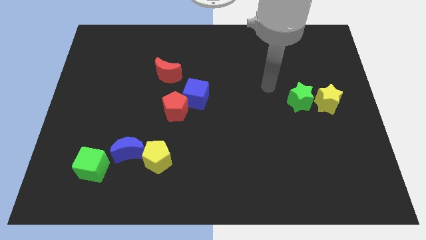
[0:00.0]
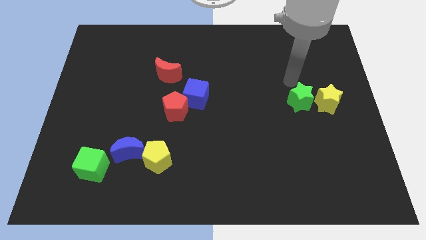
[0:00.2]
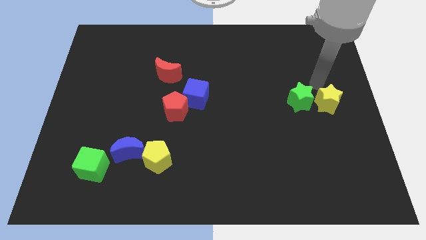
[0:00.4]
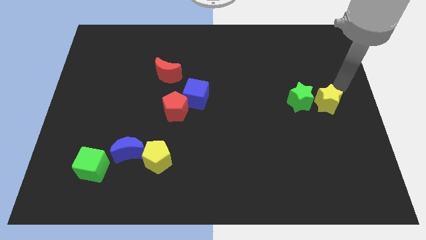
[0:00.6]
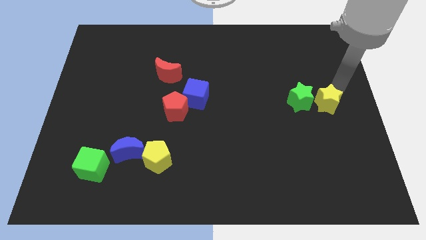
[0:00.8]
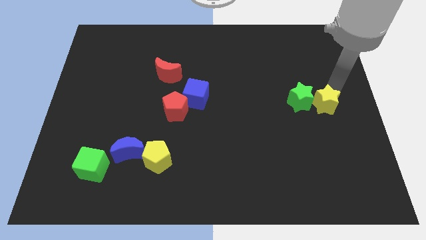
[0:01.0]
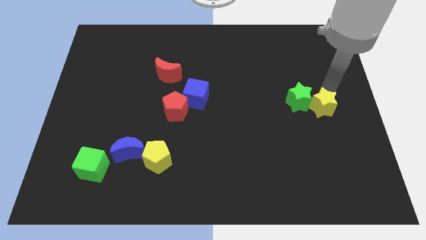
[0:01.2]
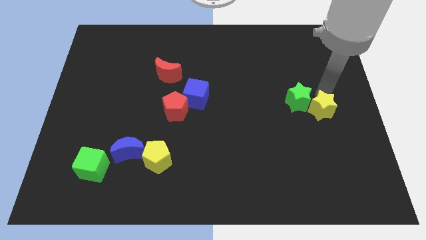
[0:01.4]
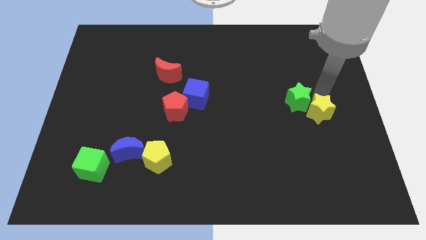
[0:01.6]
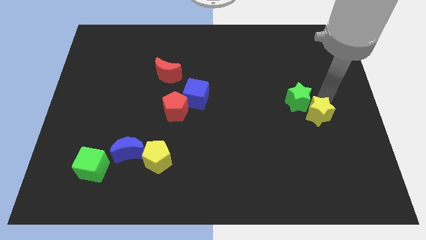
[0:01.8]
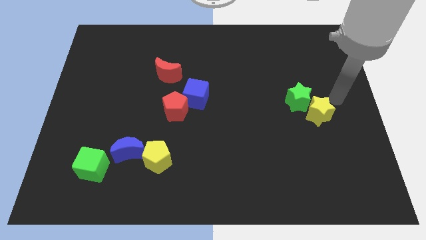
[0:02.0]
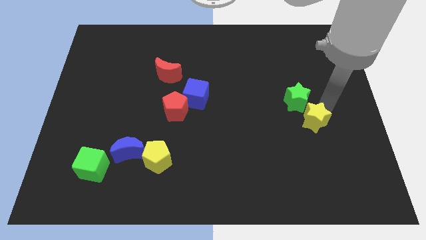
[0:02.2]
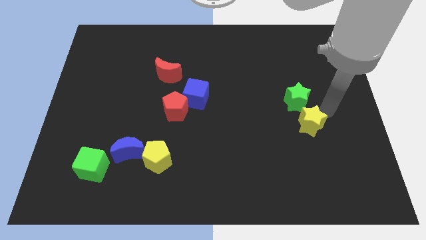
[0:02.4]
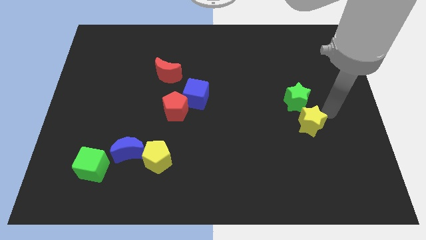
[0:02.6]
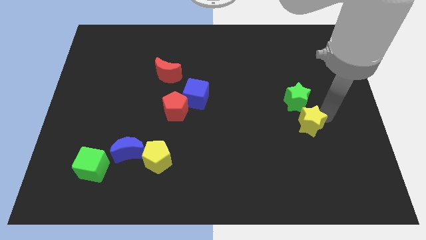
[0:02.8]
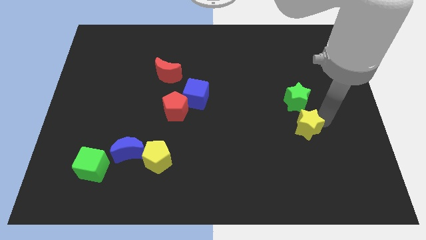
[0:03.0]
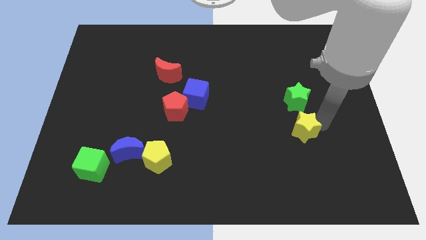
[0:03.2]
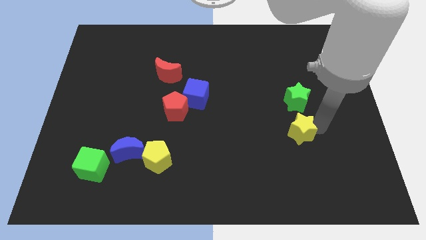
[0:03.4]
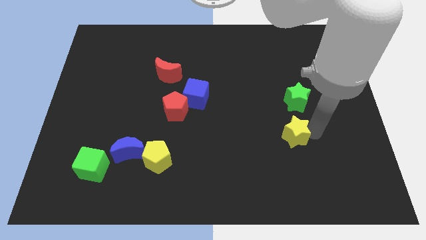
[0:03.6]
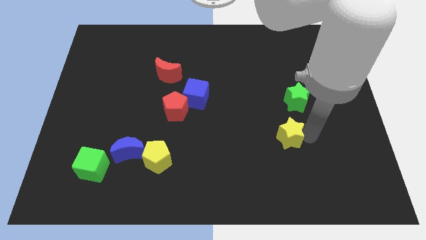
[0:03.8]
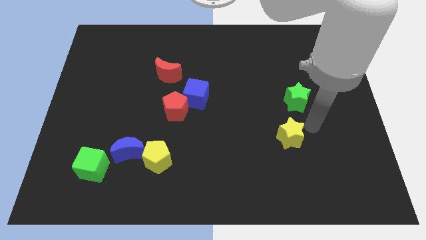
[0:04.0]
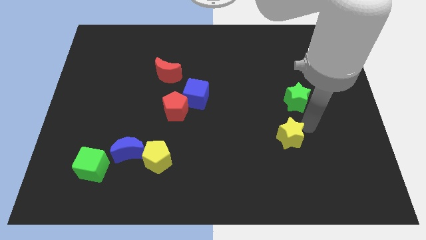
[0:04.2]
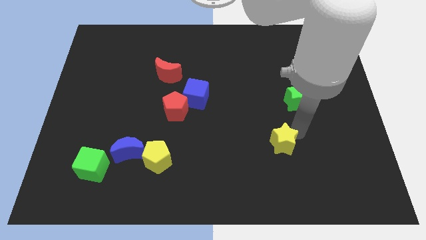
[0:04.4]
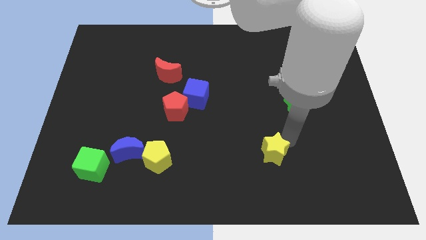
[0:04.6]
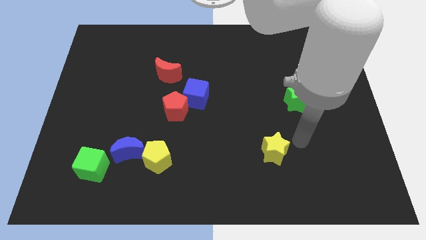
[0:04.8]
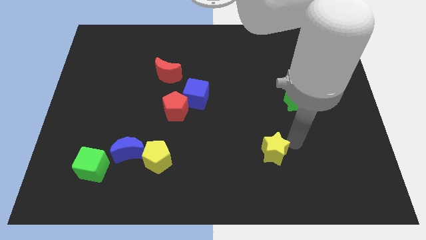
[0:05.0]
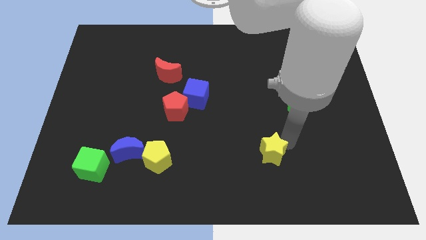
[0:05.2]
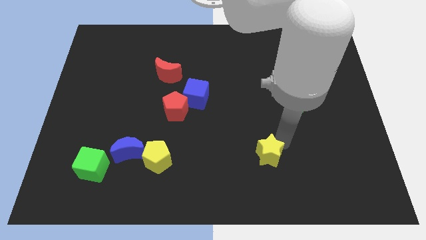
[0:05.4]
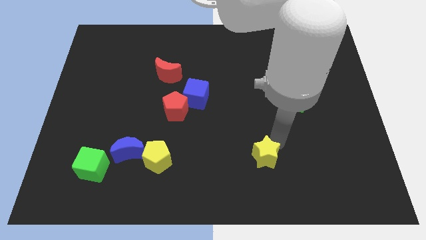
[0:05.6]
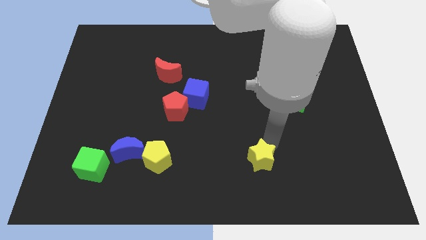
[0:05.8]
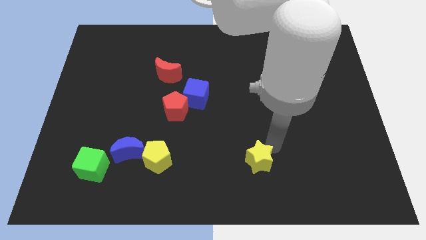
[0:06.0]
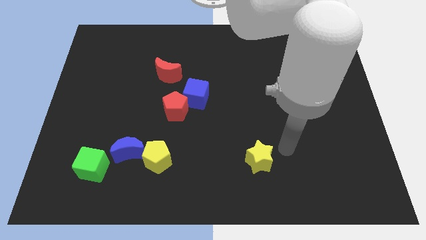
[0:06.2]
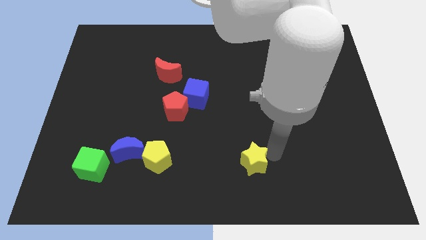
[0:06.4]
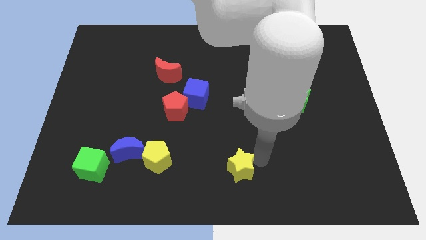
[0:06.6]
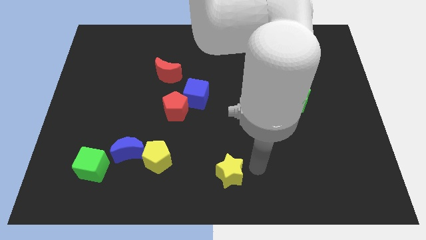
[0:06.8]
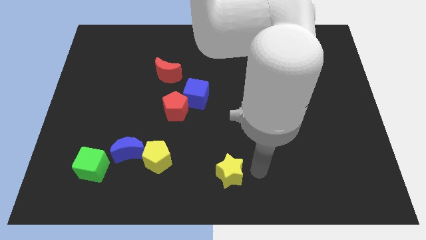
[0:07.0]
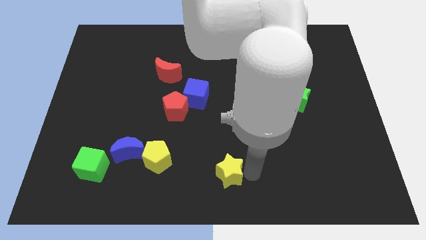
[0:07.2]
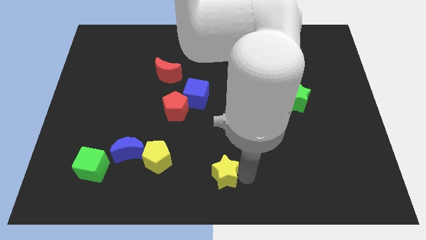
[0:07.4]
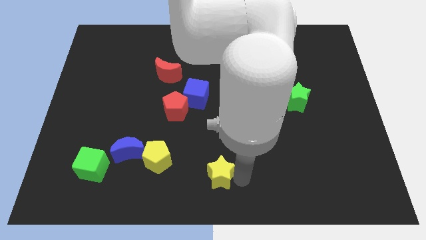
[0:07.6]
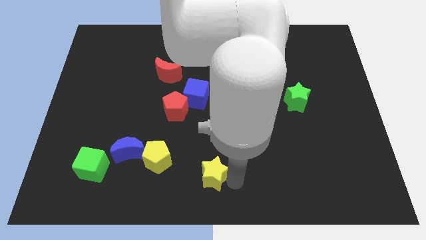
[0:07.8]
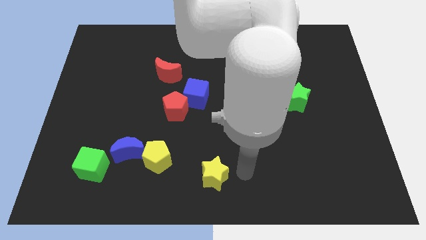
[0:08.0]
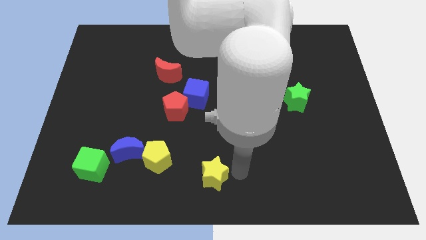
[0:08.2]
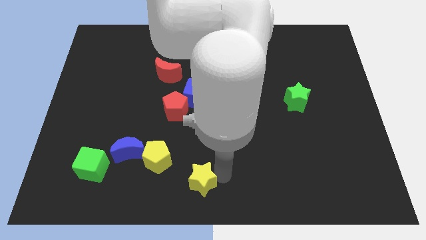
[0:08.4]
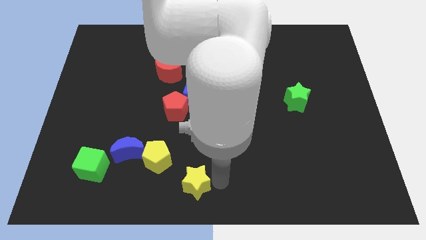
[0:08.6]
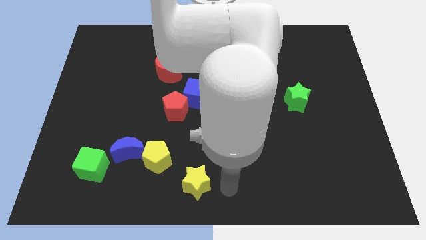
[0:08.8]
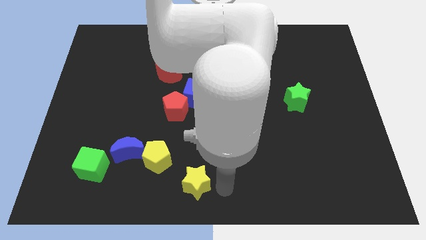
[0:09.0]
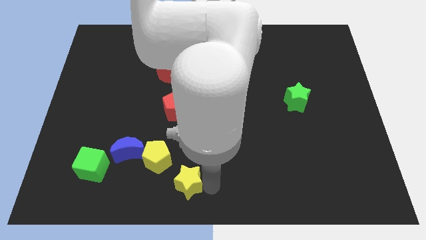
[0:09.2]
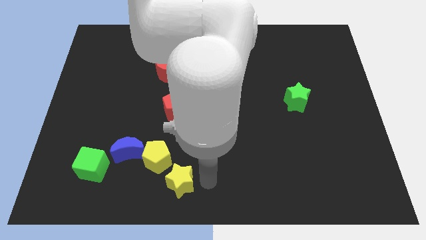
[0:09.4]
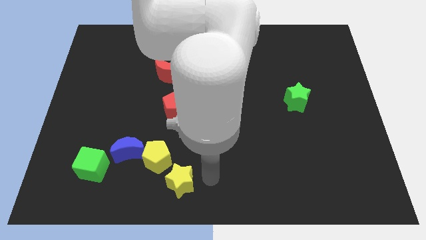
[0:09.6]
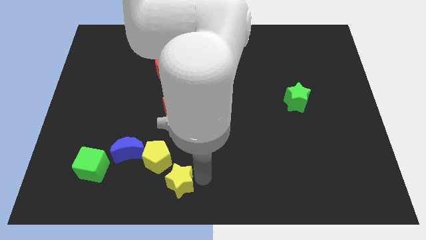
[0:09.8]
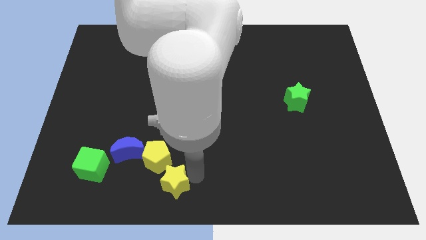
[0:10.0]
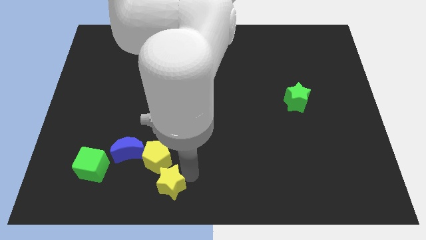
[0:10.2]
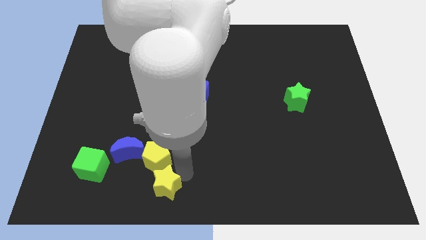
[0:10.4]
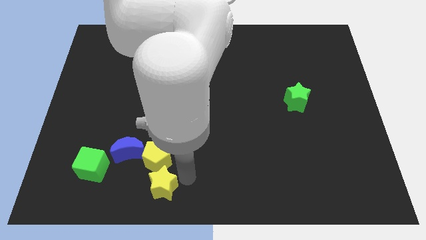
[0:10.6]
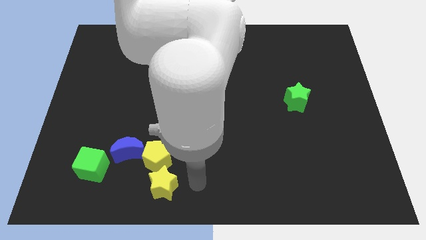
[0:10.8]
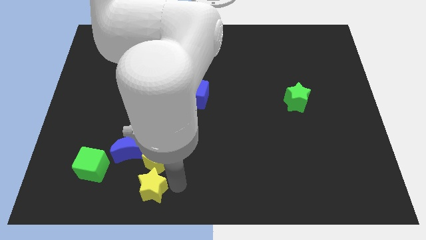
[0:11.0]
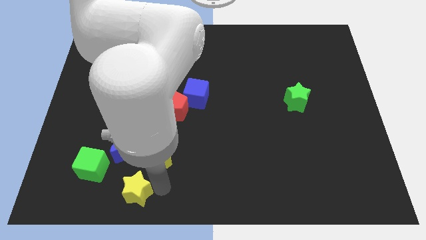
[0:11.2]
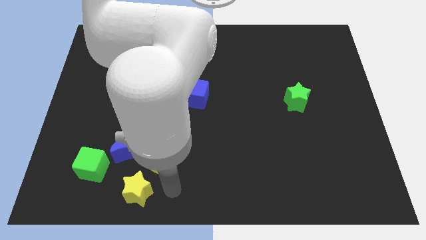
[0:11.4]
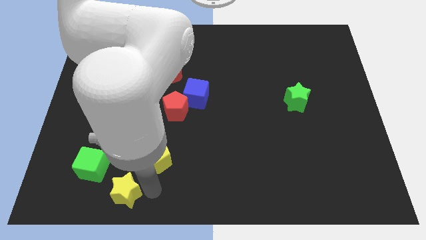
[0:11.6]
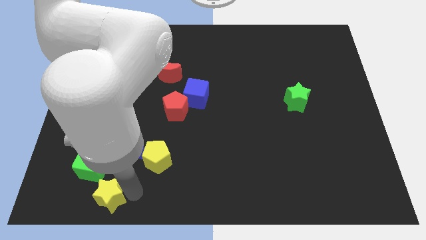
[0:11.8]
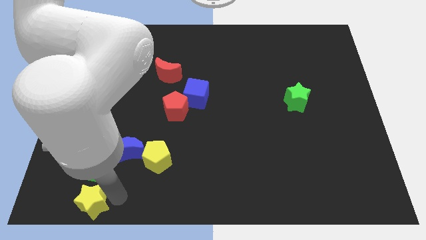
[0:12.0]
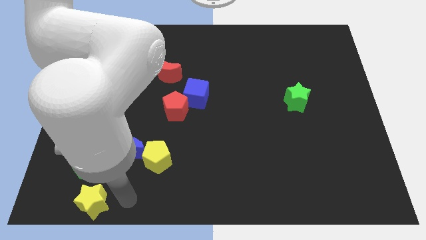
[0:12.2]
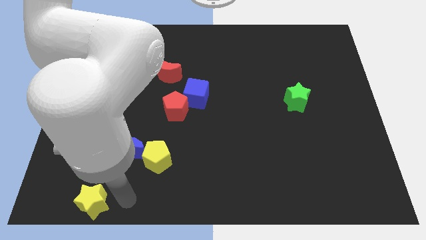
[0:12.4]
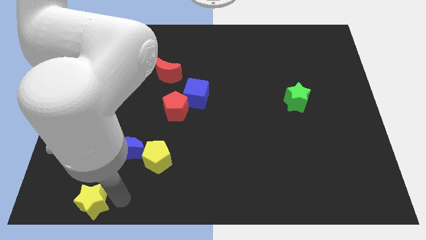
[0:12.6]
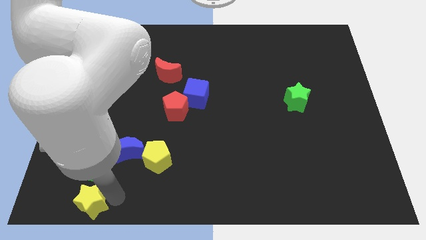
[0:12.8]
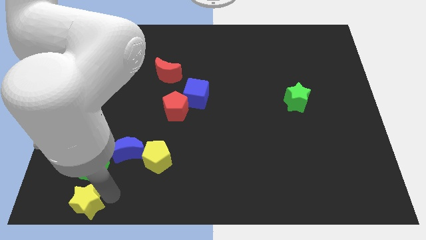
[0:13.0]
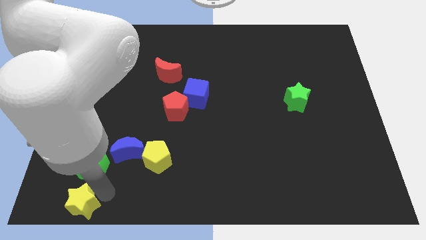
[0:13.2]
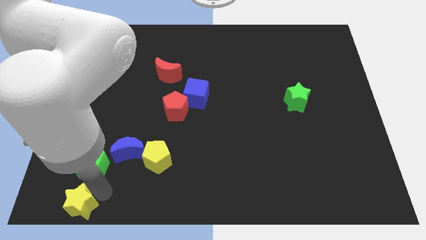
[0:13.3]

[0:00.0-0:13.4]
push the yellow star to the bottom left

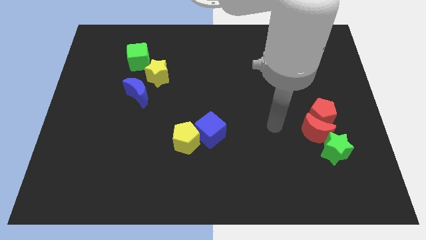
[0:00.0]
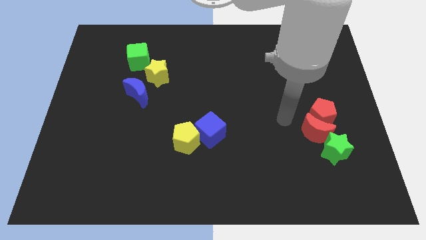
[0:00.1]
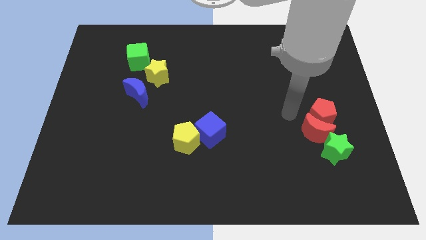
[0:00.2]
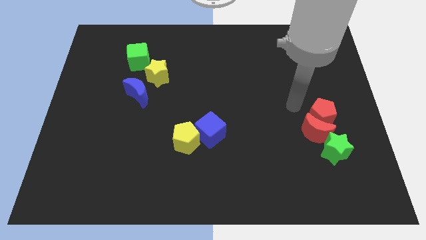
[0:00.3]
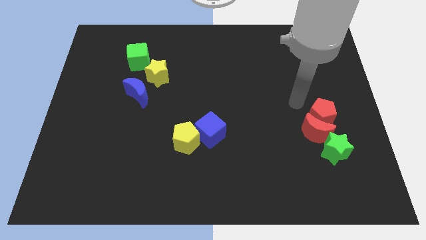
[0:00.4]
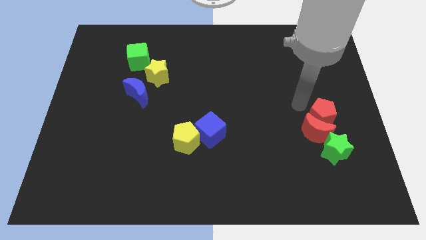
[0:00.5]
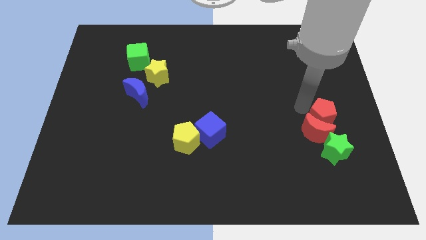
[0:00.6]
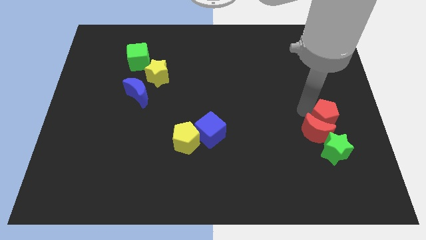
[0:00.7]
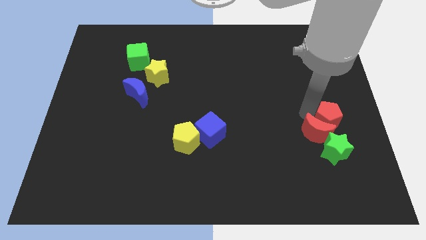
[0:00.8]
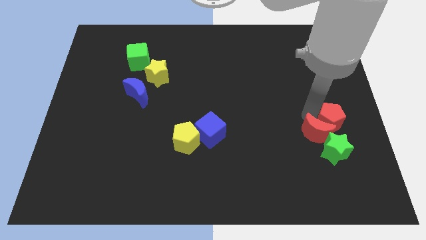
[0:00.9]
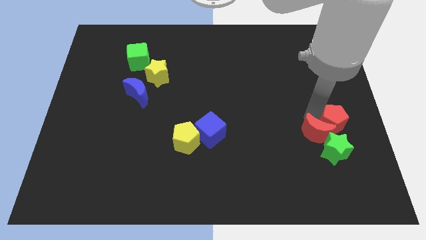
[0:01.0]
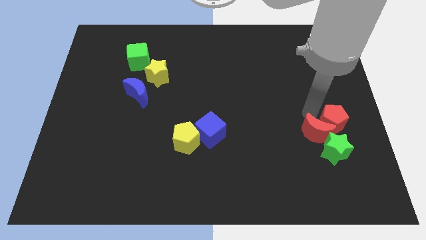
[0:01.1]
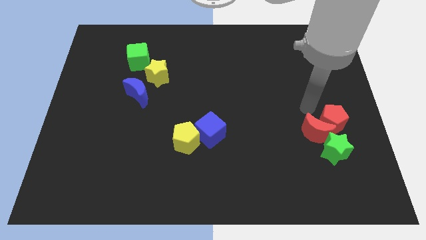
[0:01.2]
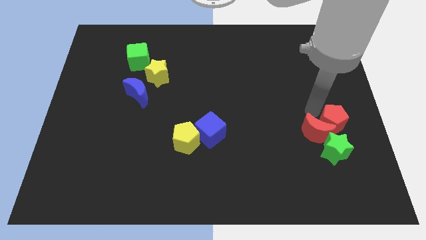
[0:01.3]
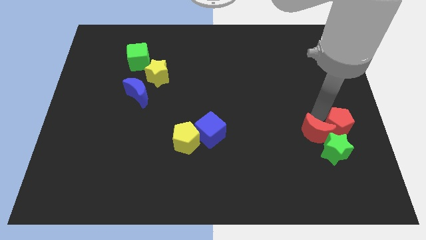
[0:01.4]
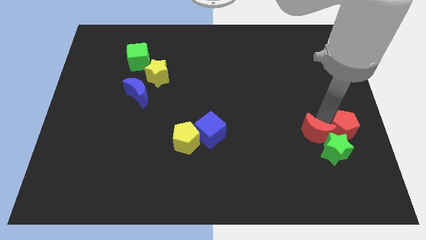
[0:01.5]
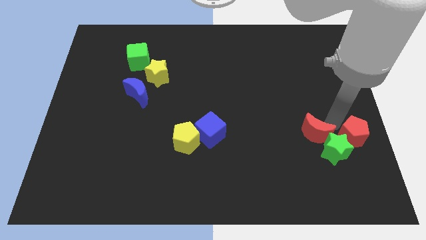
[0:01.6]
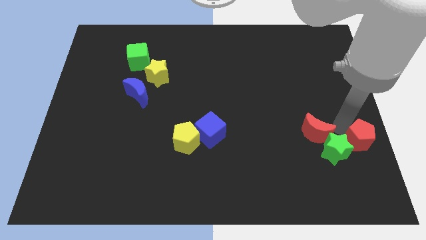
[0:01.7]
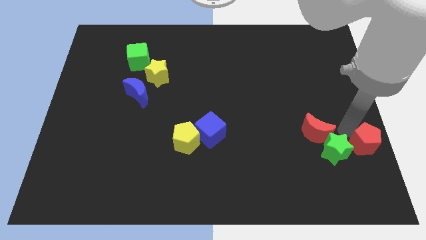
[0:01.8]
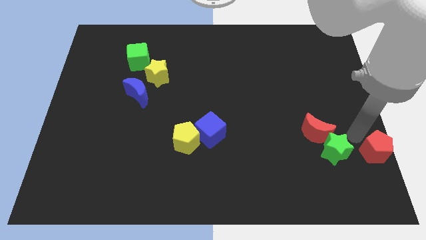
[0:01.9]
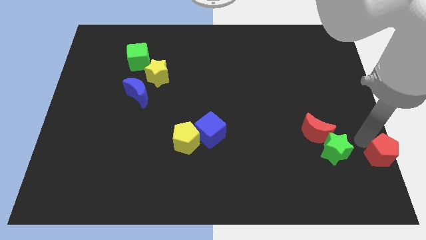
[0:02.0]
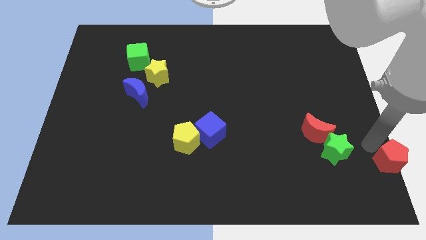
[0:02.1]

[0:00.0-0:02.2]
put the red pentagon to the bottom right corner
